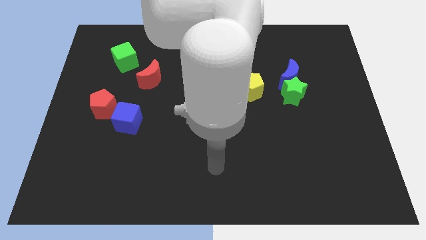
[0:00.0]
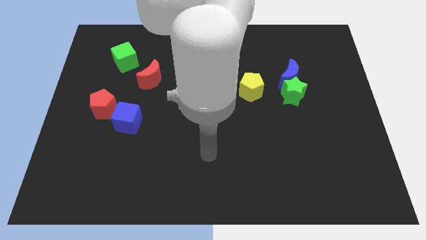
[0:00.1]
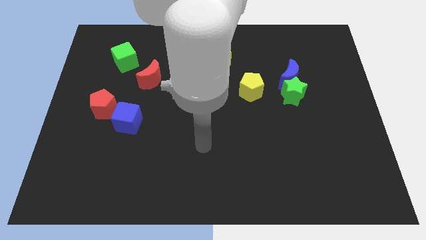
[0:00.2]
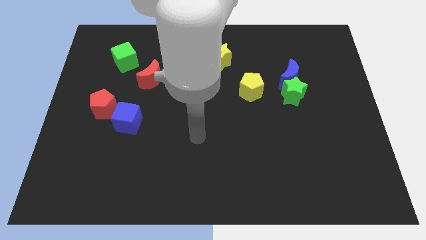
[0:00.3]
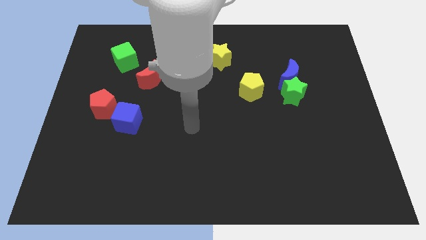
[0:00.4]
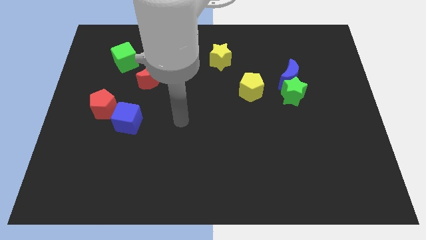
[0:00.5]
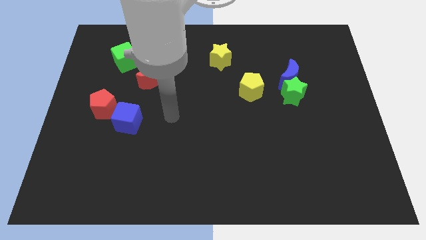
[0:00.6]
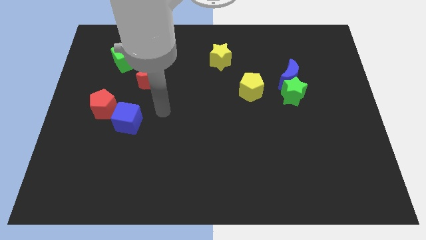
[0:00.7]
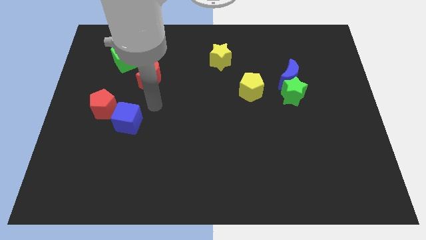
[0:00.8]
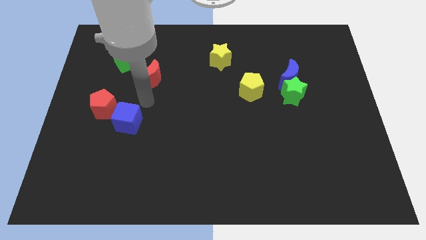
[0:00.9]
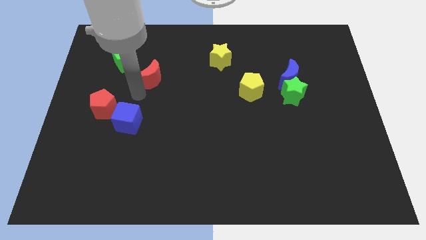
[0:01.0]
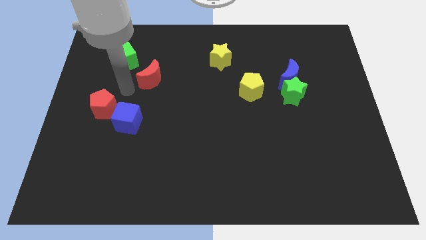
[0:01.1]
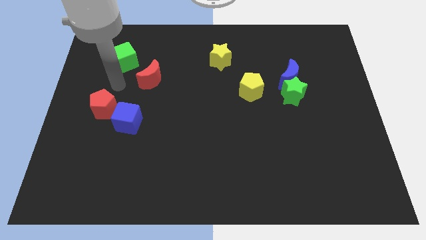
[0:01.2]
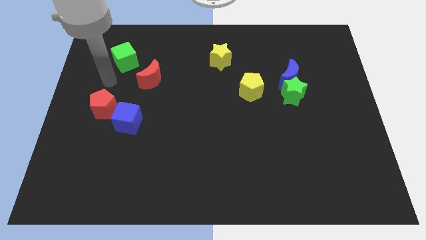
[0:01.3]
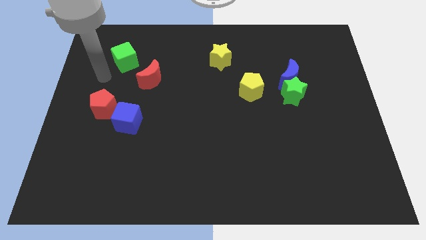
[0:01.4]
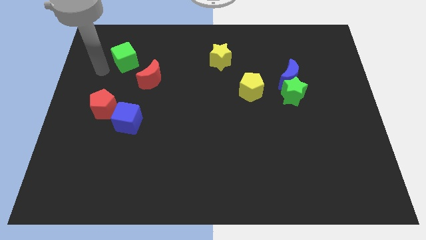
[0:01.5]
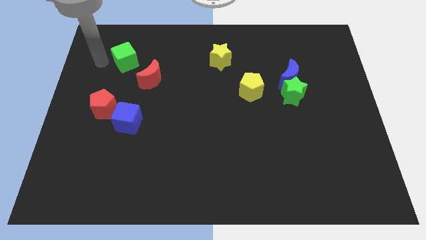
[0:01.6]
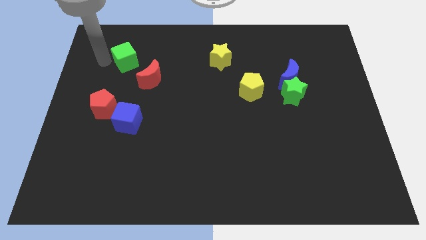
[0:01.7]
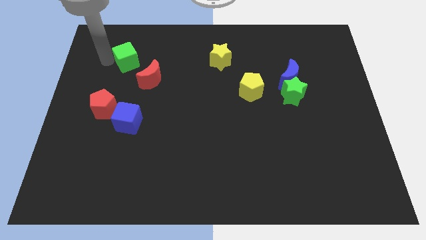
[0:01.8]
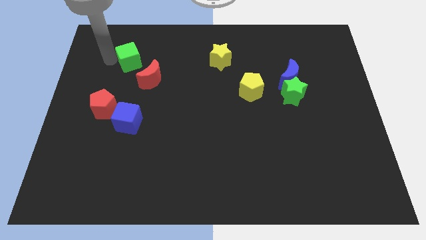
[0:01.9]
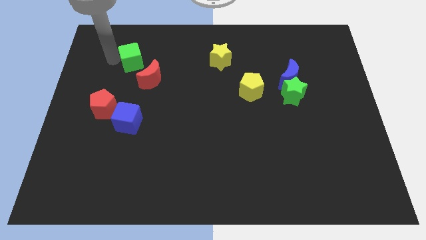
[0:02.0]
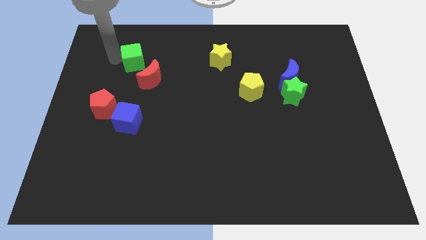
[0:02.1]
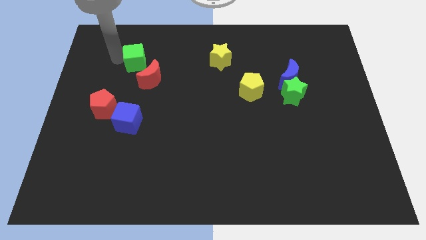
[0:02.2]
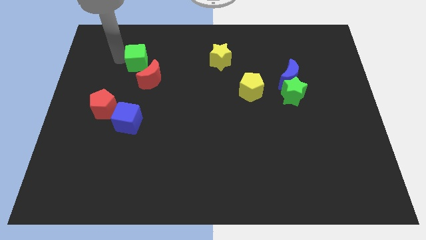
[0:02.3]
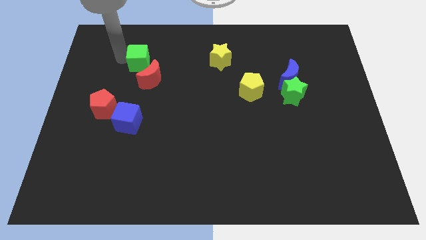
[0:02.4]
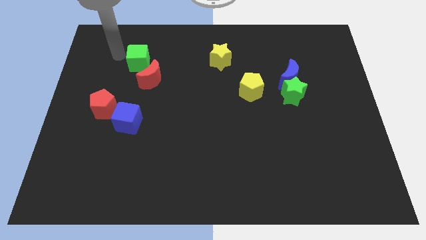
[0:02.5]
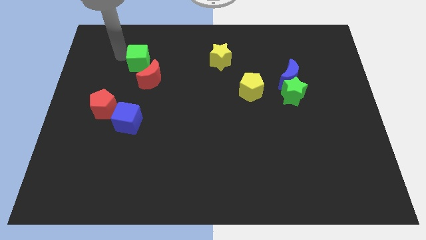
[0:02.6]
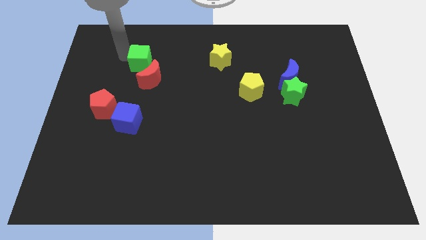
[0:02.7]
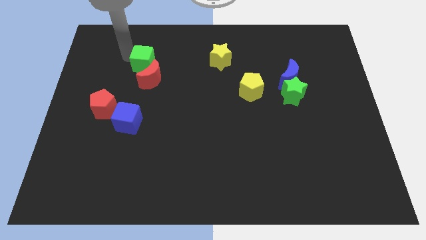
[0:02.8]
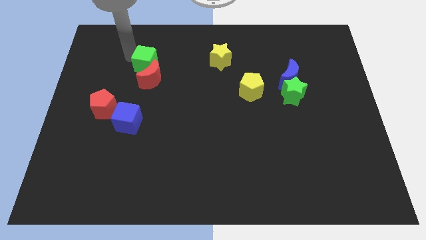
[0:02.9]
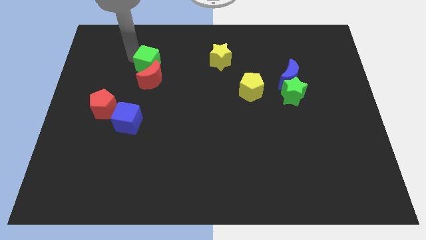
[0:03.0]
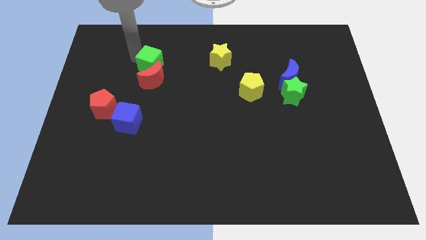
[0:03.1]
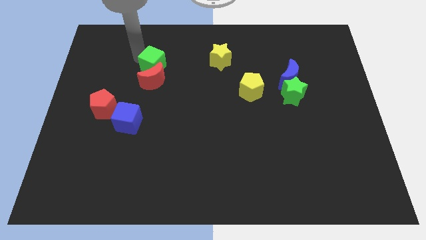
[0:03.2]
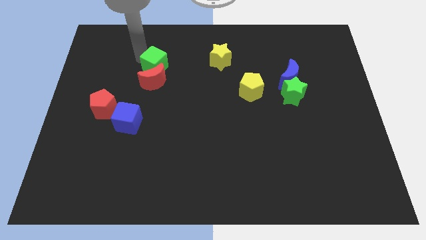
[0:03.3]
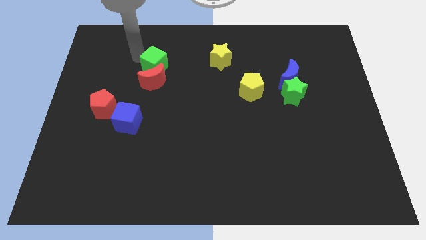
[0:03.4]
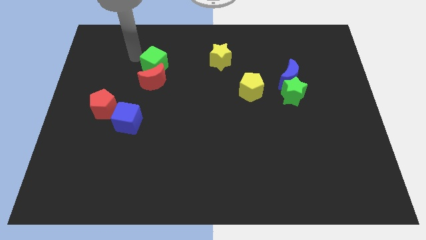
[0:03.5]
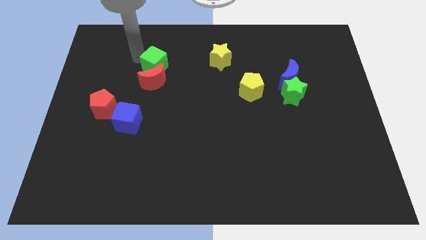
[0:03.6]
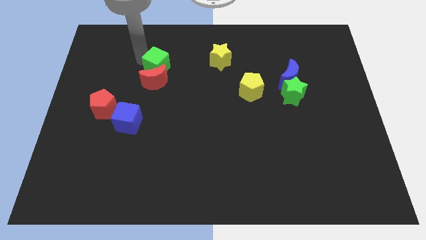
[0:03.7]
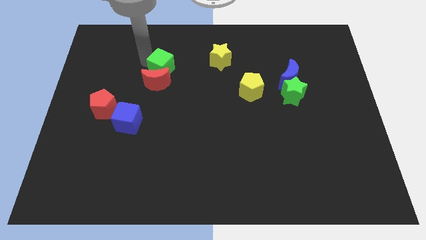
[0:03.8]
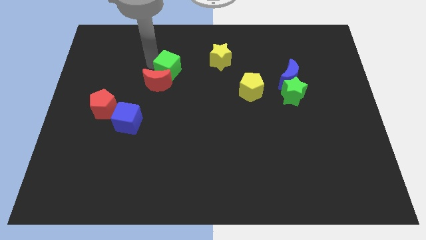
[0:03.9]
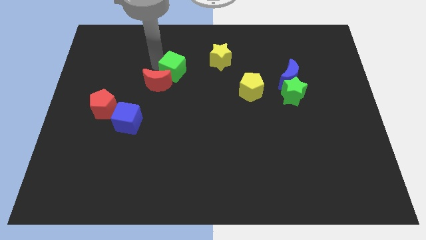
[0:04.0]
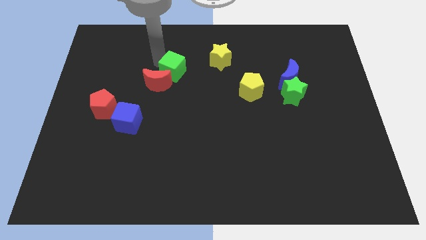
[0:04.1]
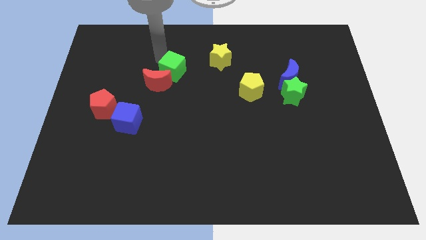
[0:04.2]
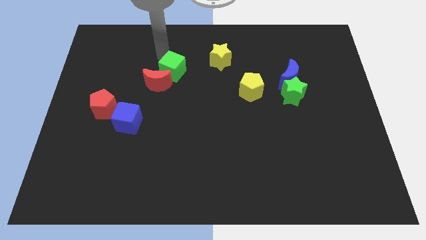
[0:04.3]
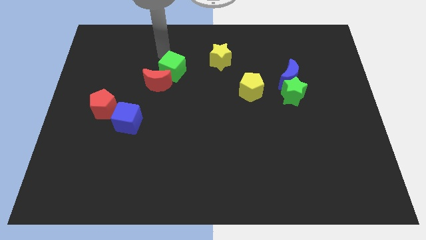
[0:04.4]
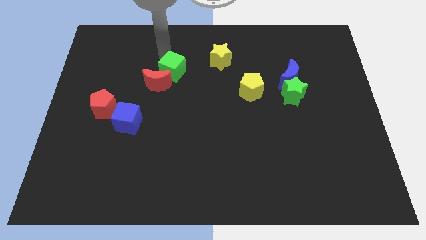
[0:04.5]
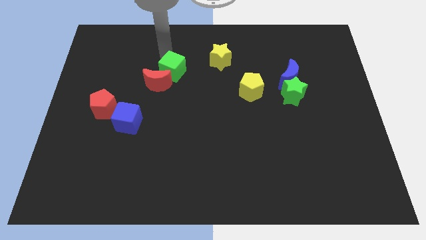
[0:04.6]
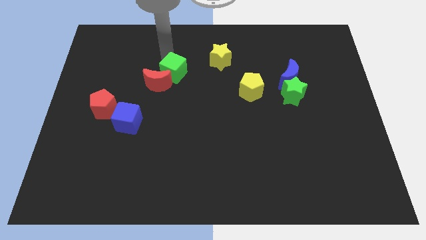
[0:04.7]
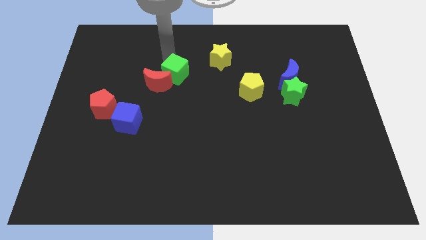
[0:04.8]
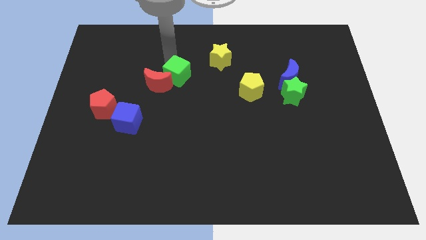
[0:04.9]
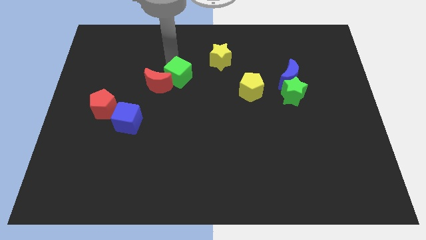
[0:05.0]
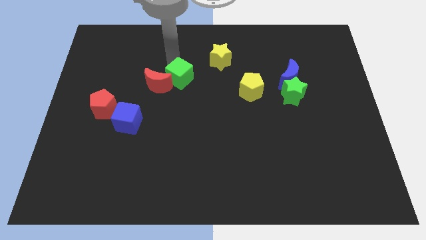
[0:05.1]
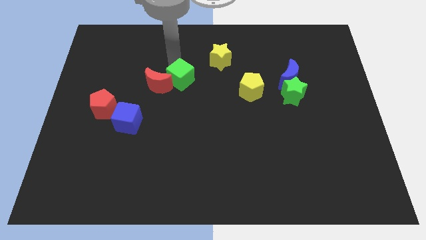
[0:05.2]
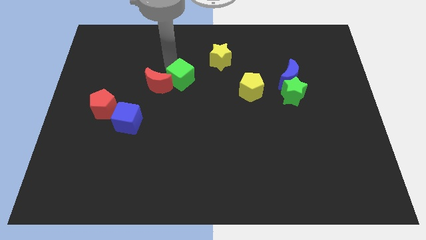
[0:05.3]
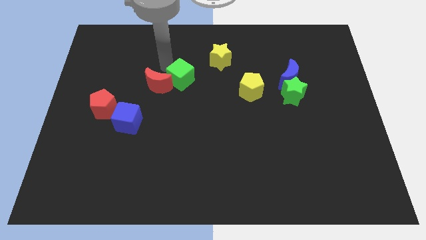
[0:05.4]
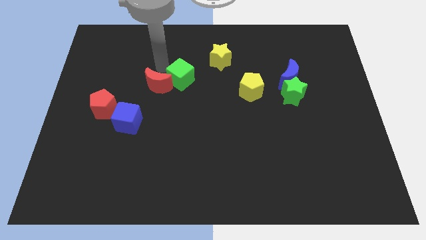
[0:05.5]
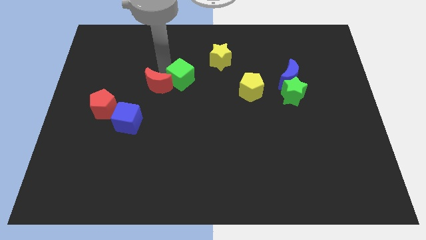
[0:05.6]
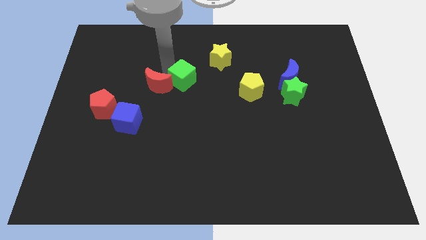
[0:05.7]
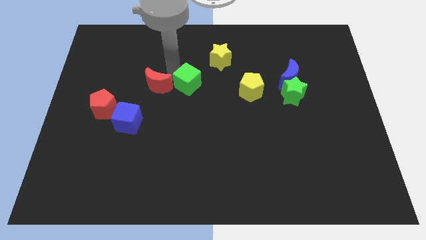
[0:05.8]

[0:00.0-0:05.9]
move the green cube left of the yellow pentagon

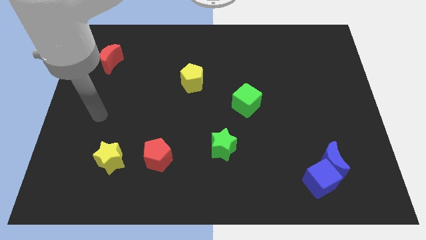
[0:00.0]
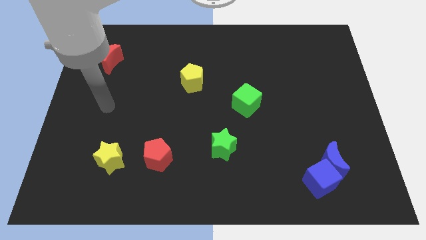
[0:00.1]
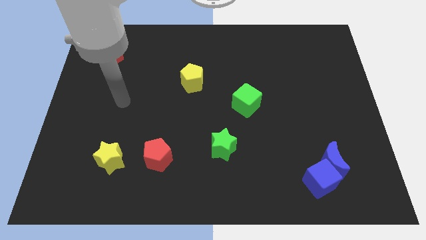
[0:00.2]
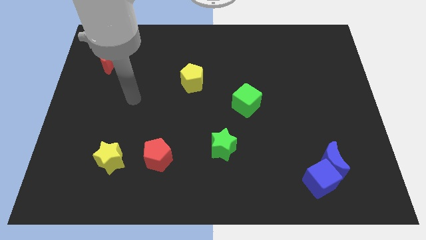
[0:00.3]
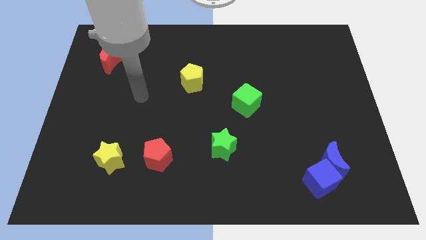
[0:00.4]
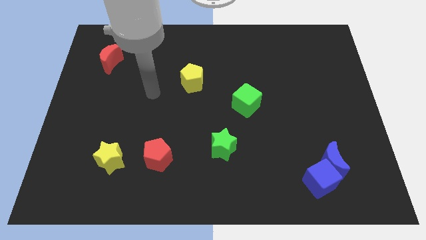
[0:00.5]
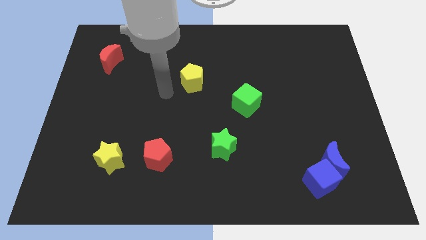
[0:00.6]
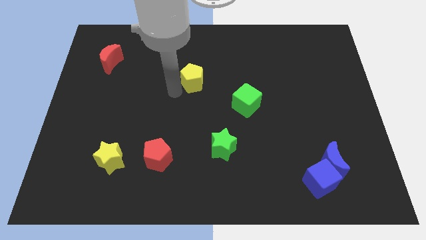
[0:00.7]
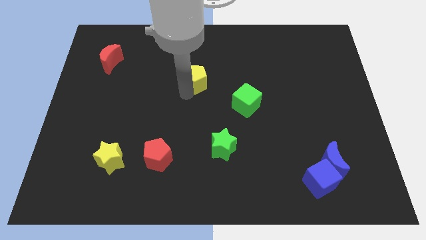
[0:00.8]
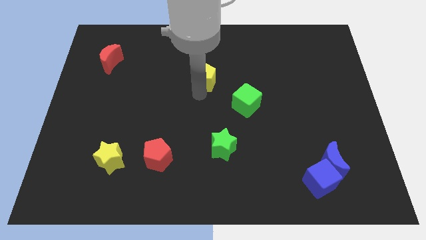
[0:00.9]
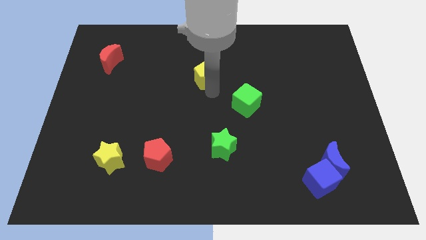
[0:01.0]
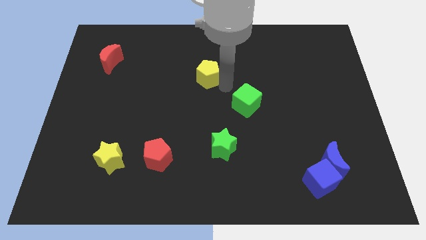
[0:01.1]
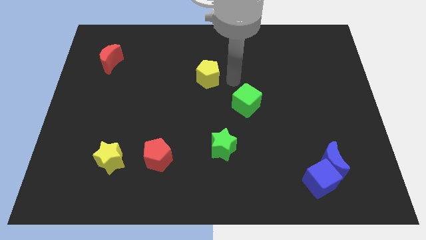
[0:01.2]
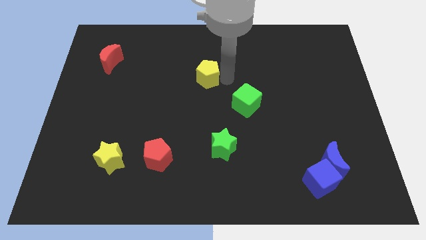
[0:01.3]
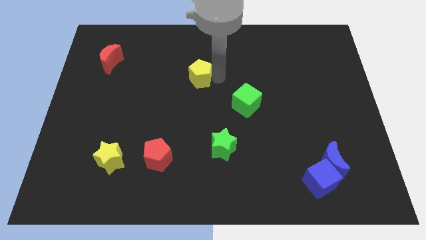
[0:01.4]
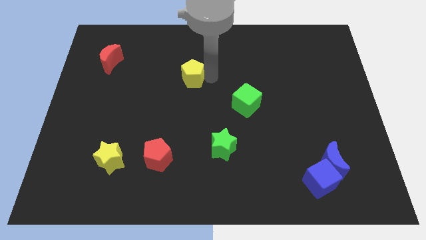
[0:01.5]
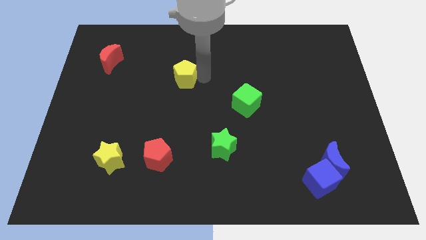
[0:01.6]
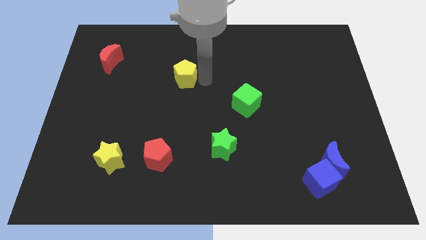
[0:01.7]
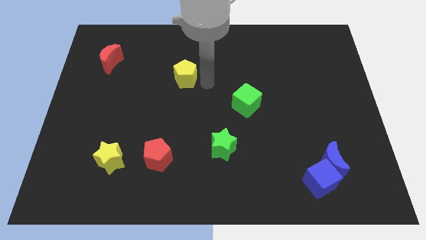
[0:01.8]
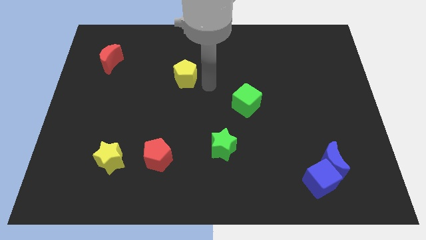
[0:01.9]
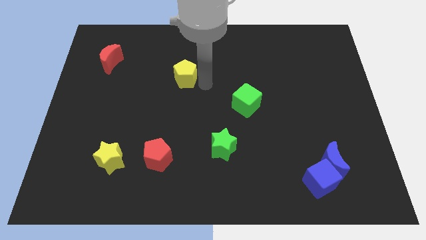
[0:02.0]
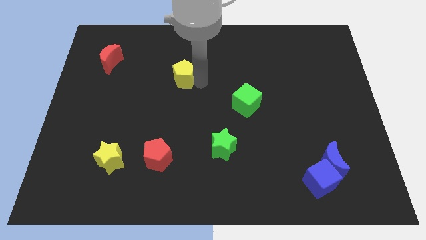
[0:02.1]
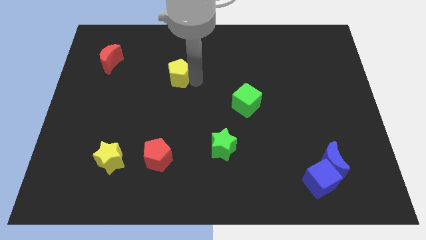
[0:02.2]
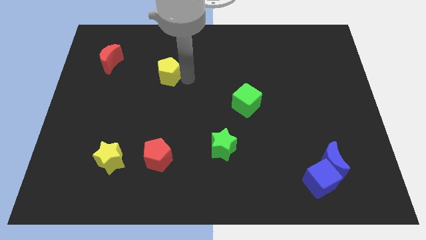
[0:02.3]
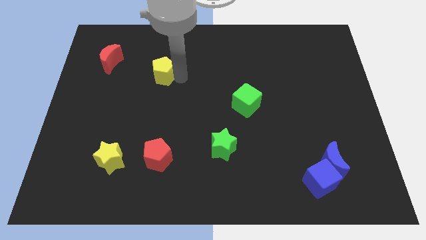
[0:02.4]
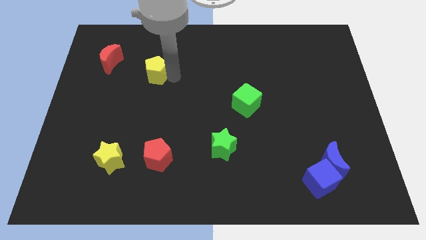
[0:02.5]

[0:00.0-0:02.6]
put the yellow pentagon right of the red moon
